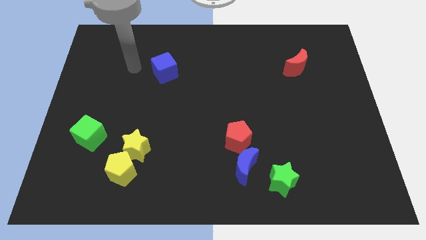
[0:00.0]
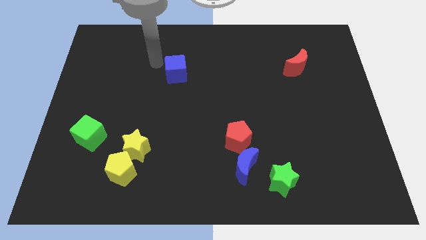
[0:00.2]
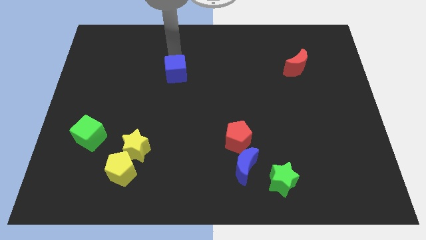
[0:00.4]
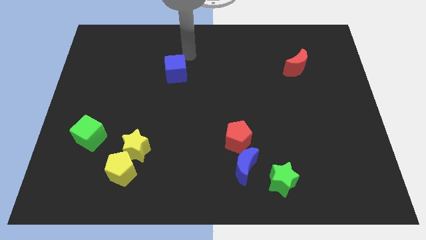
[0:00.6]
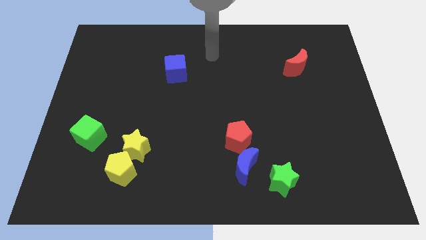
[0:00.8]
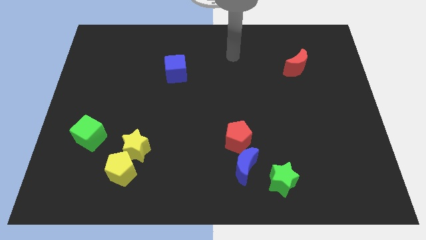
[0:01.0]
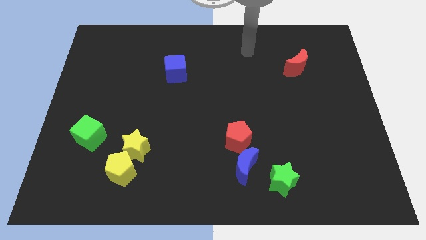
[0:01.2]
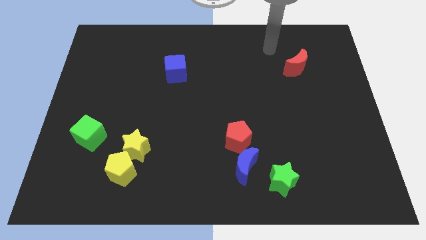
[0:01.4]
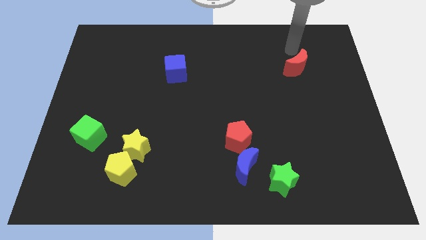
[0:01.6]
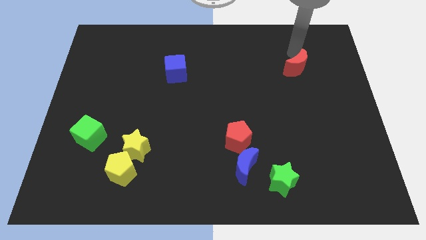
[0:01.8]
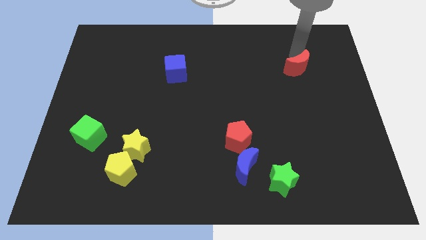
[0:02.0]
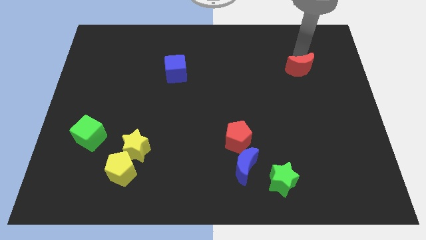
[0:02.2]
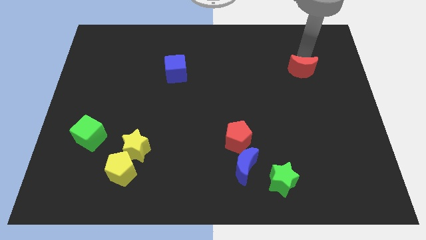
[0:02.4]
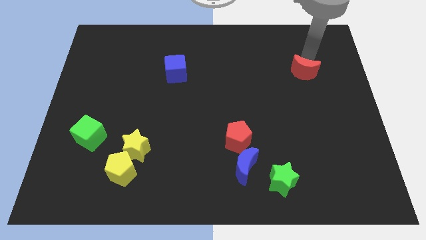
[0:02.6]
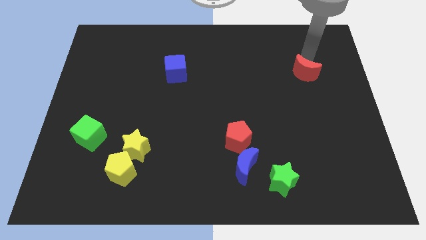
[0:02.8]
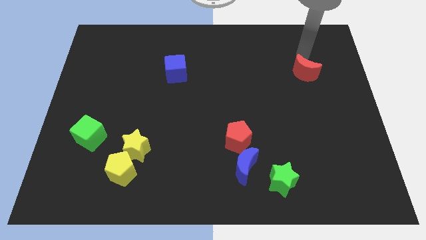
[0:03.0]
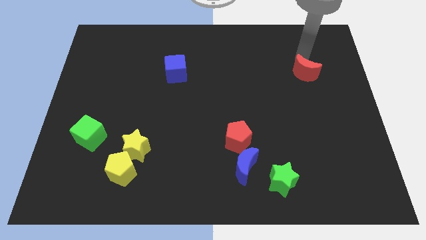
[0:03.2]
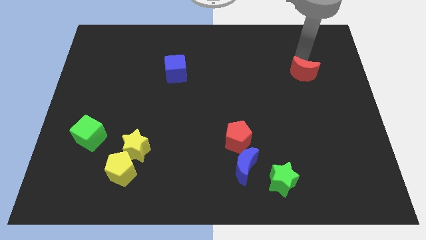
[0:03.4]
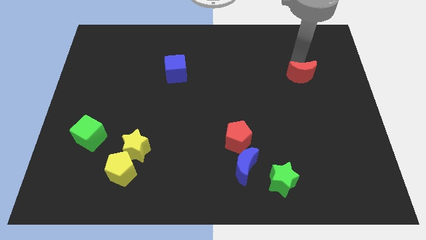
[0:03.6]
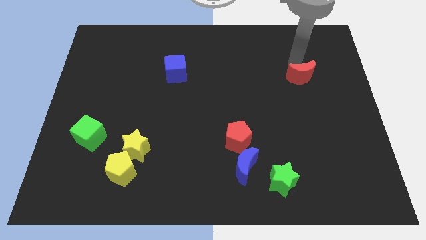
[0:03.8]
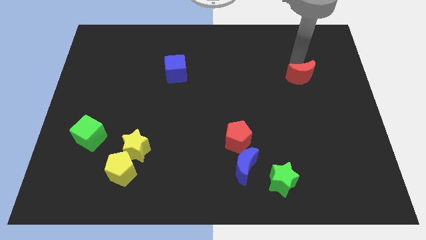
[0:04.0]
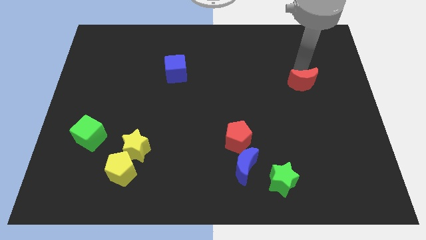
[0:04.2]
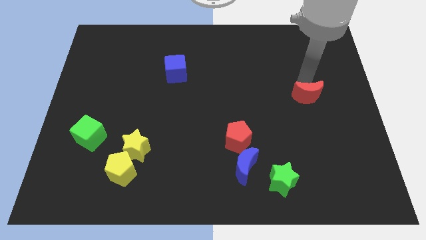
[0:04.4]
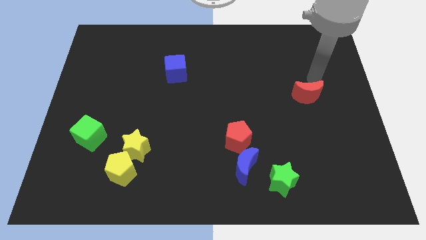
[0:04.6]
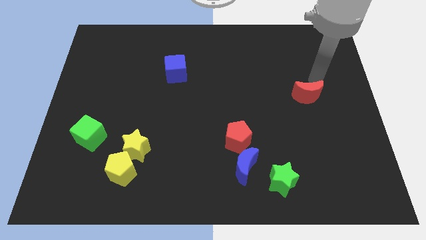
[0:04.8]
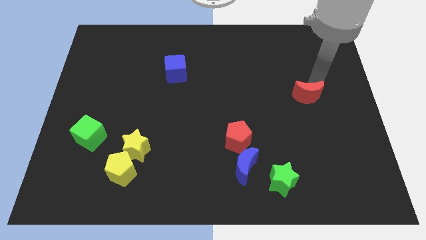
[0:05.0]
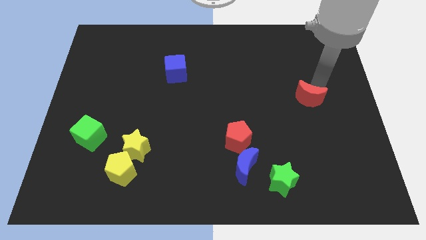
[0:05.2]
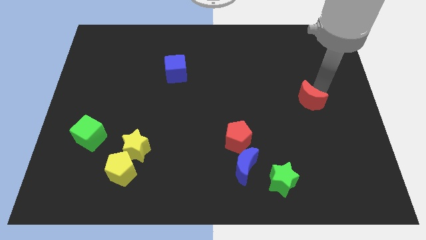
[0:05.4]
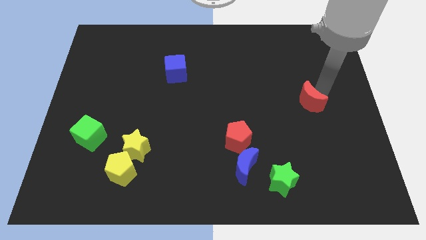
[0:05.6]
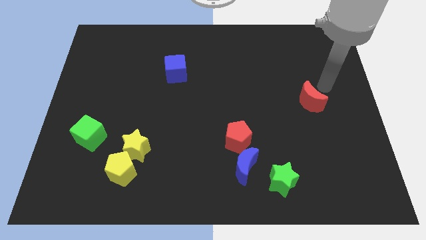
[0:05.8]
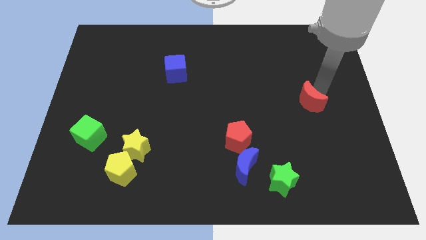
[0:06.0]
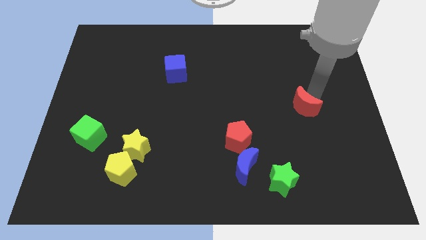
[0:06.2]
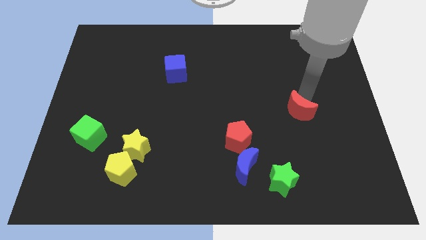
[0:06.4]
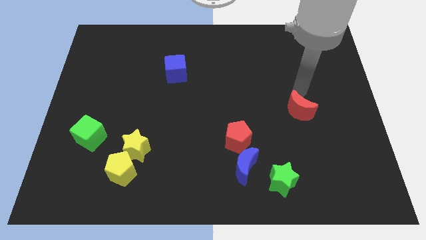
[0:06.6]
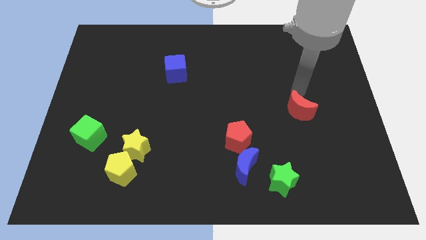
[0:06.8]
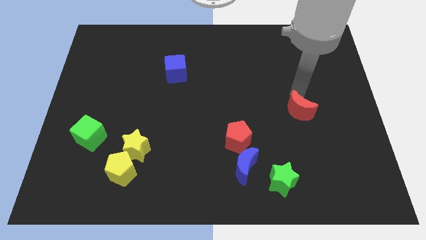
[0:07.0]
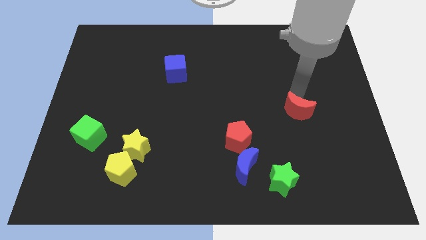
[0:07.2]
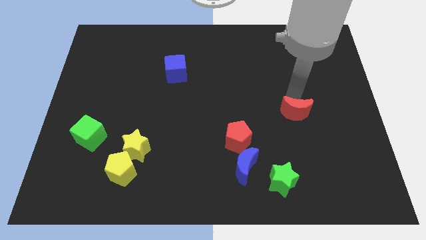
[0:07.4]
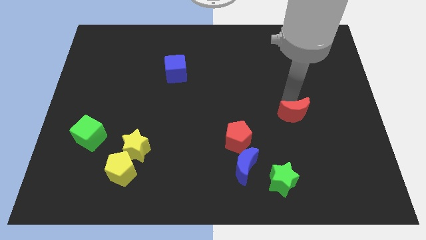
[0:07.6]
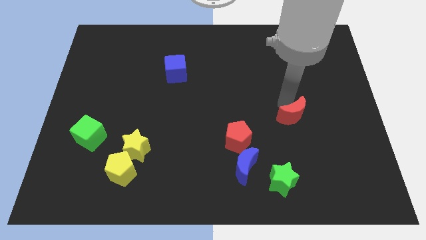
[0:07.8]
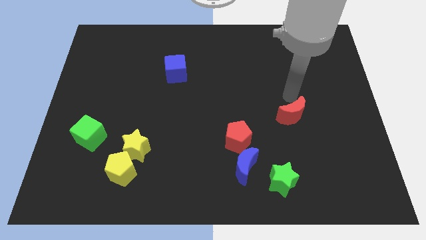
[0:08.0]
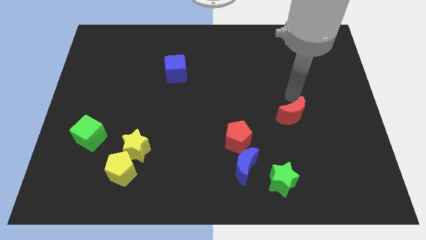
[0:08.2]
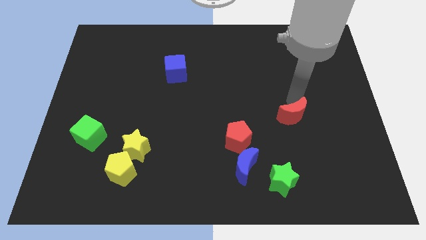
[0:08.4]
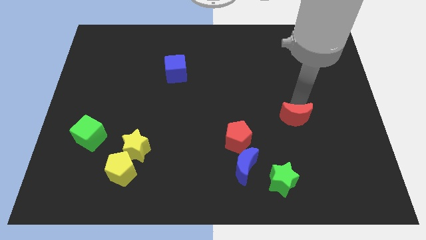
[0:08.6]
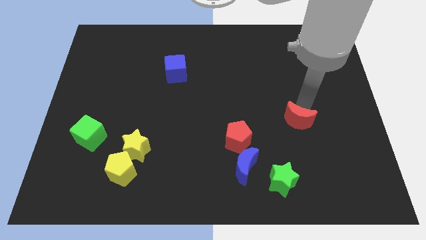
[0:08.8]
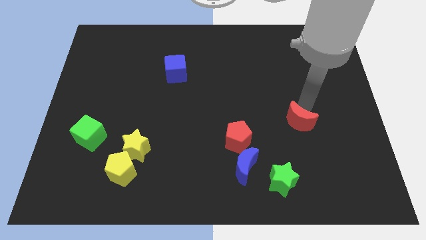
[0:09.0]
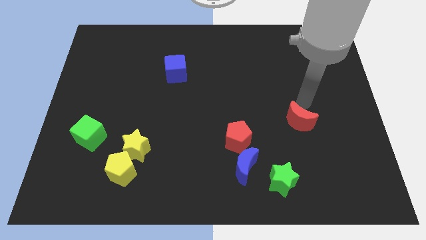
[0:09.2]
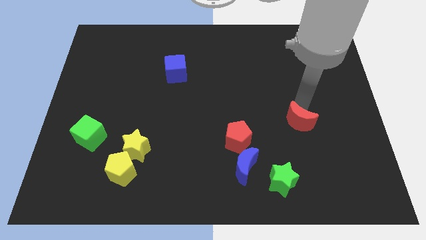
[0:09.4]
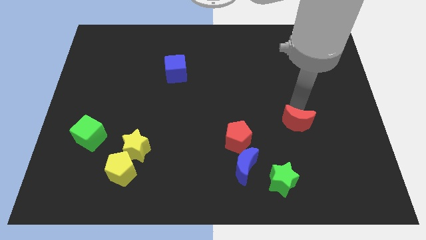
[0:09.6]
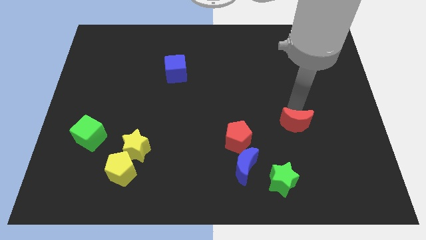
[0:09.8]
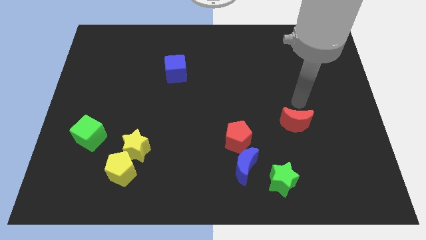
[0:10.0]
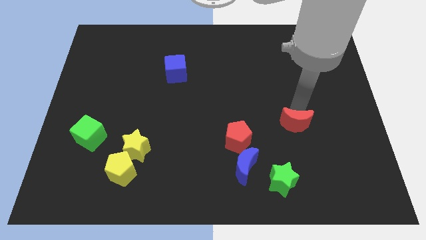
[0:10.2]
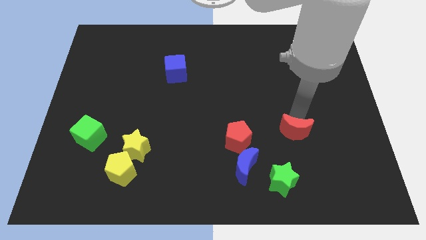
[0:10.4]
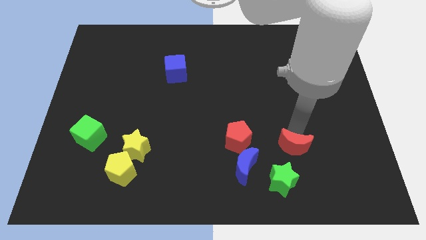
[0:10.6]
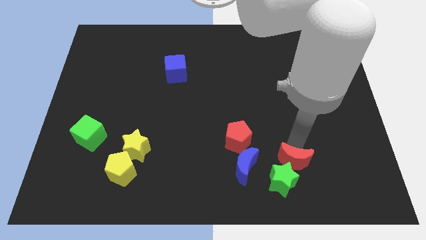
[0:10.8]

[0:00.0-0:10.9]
slide the red moon towards the green star
